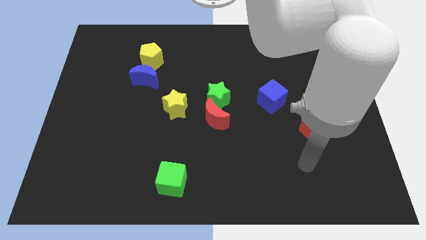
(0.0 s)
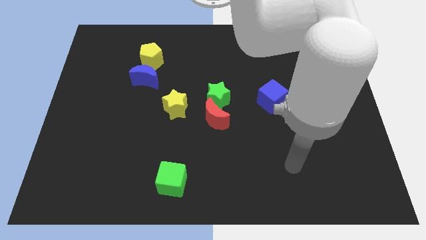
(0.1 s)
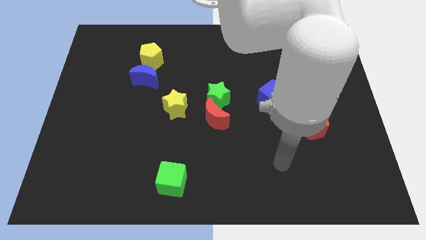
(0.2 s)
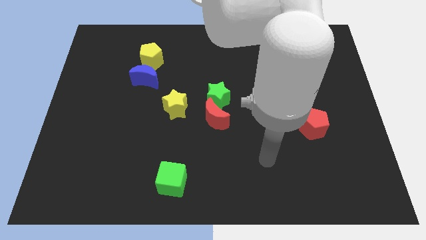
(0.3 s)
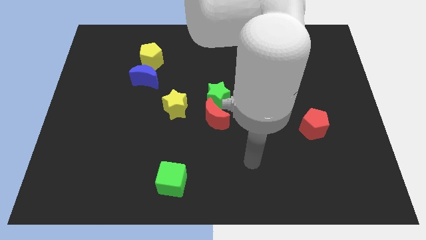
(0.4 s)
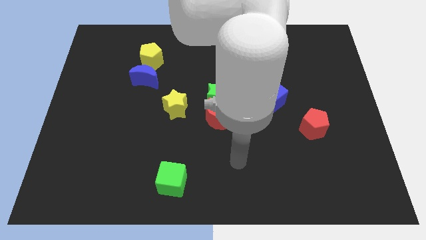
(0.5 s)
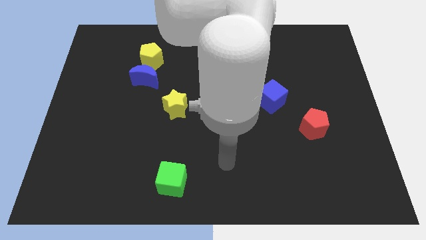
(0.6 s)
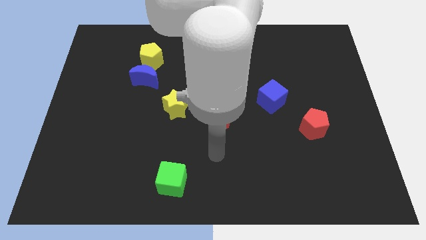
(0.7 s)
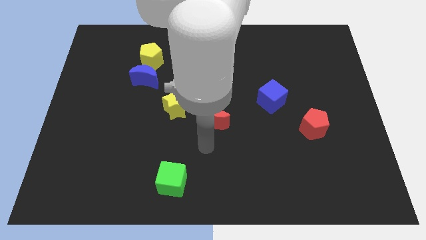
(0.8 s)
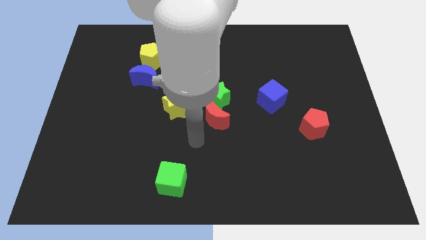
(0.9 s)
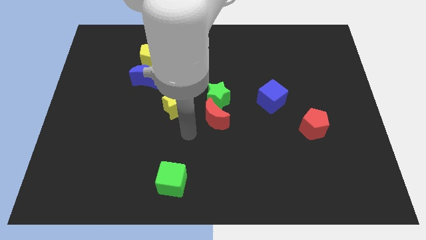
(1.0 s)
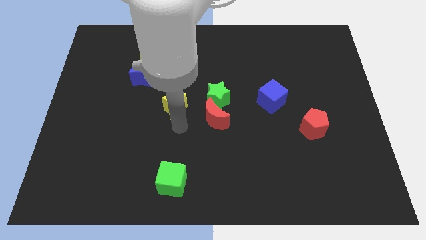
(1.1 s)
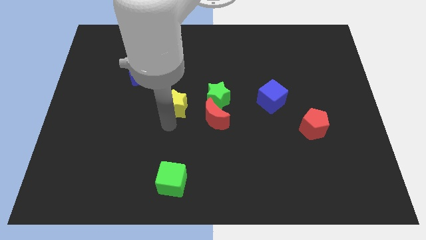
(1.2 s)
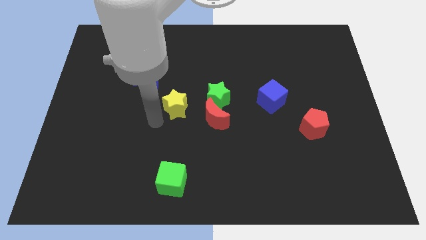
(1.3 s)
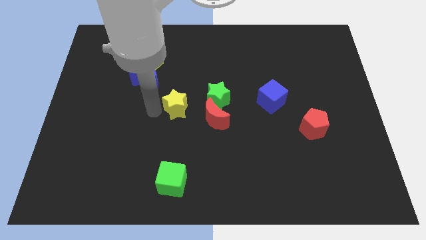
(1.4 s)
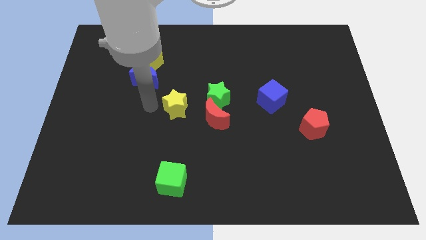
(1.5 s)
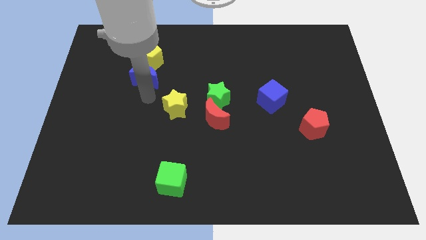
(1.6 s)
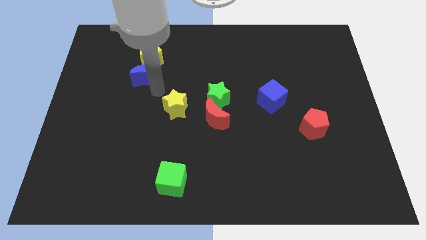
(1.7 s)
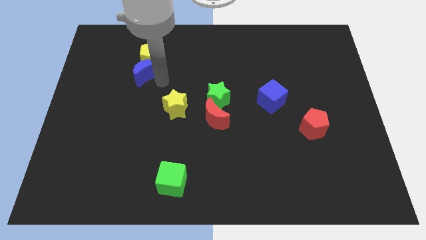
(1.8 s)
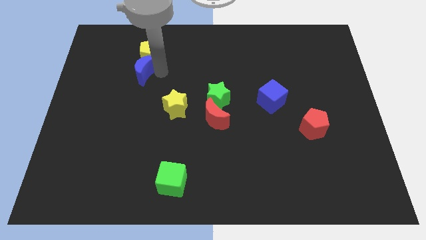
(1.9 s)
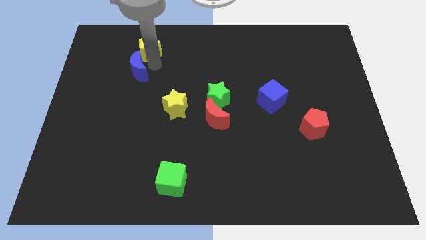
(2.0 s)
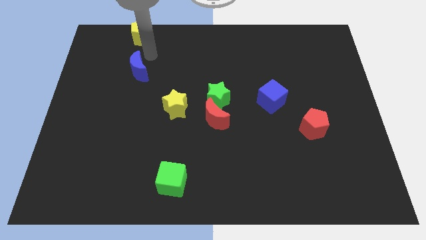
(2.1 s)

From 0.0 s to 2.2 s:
separate the blue moon from the yellow pentagon

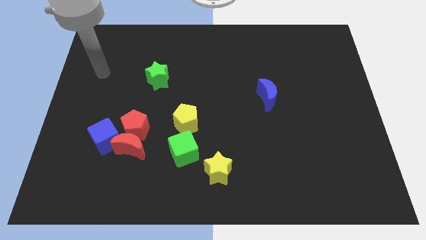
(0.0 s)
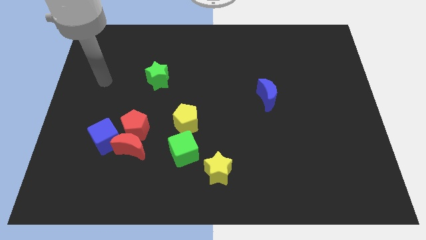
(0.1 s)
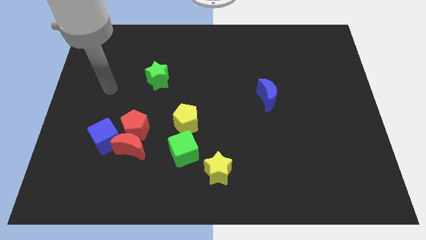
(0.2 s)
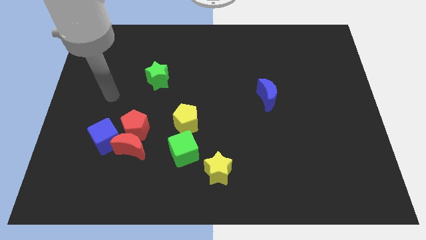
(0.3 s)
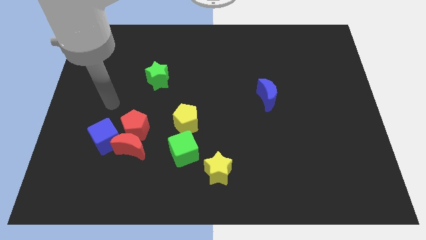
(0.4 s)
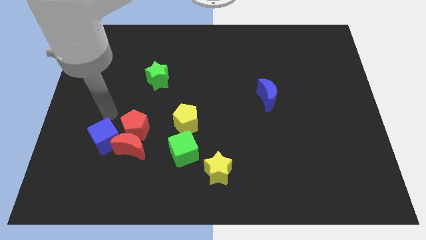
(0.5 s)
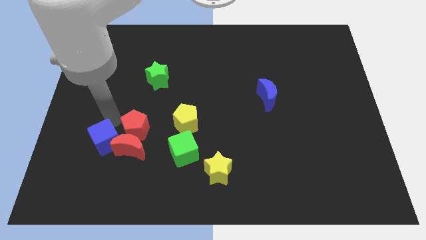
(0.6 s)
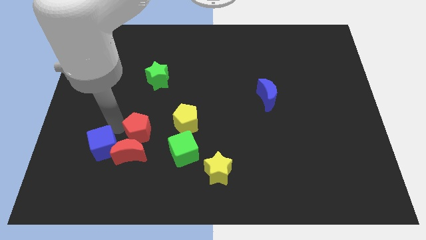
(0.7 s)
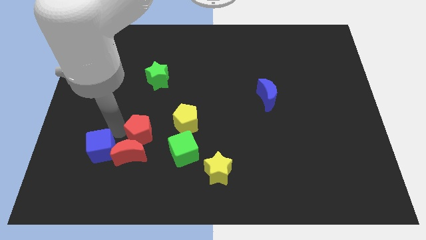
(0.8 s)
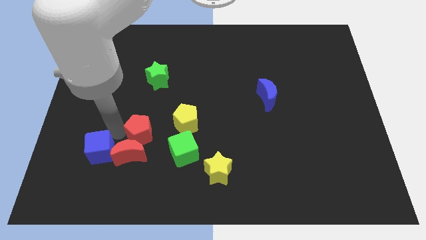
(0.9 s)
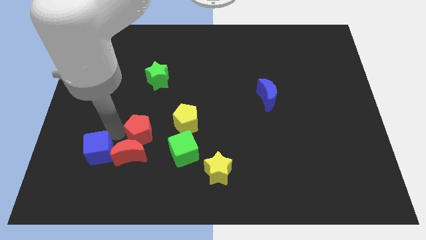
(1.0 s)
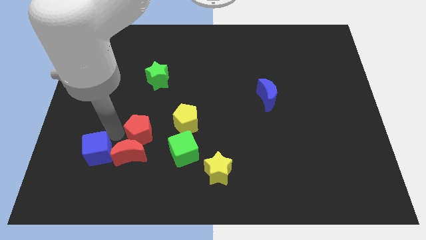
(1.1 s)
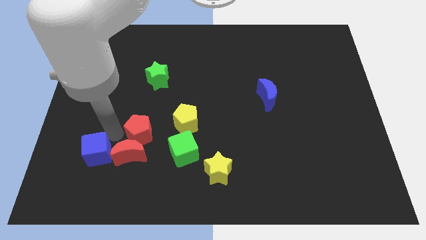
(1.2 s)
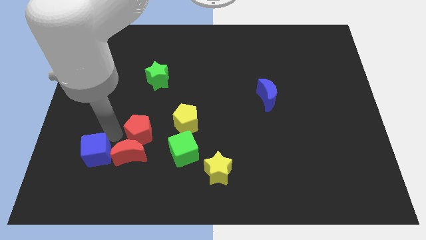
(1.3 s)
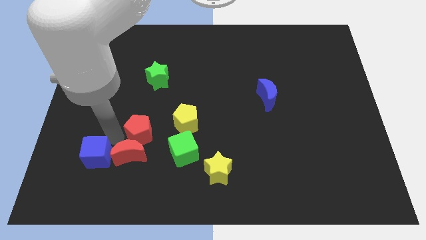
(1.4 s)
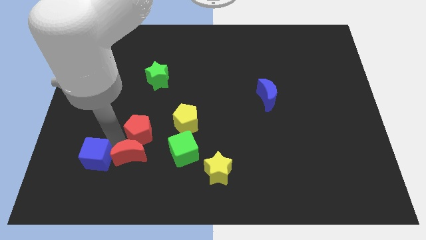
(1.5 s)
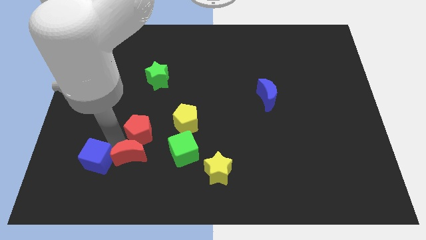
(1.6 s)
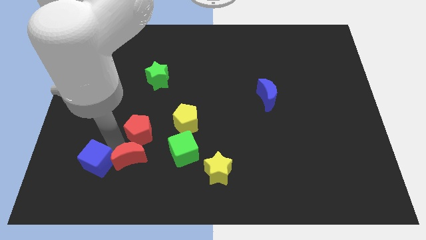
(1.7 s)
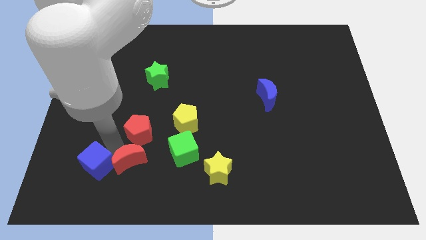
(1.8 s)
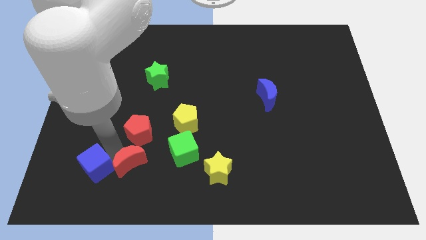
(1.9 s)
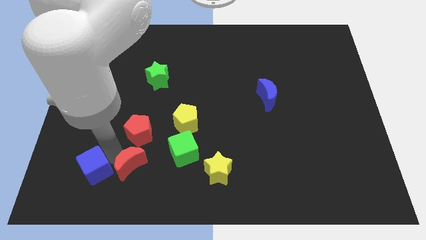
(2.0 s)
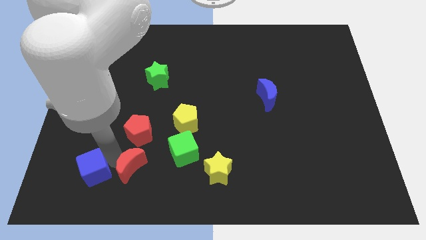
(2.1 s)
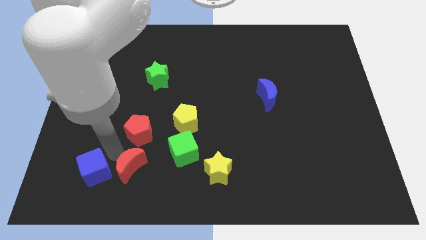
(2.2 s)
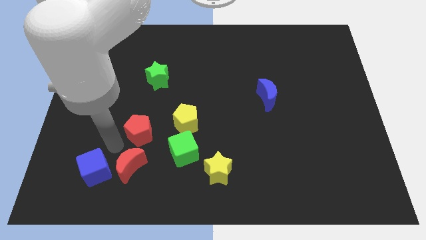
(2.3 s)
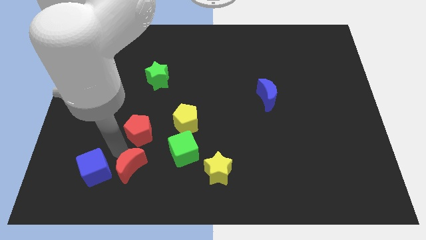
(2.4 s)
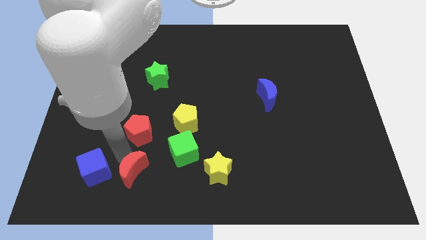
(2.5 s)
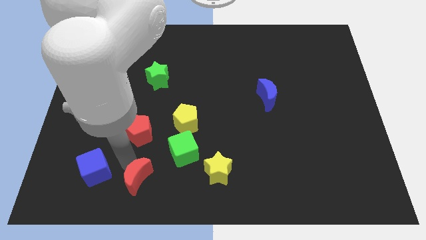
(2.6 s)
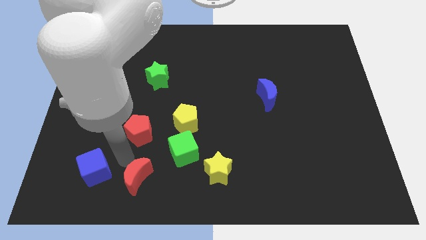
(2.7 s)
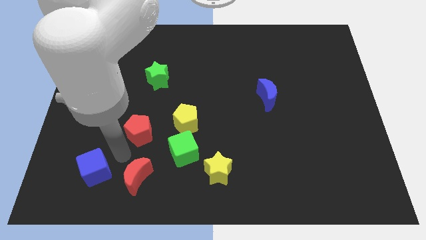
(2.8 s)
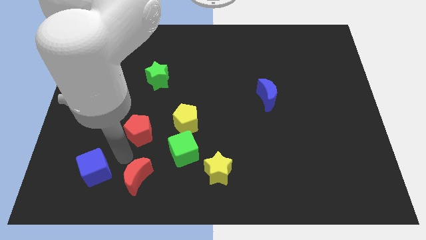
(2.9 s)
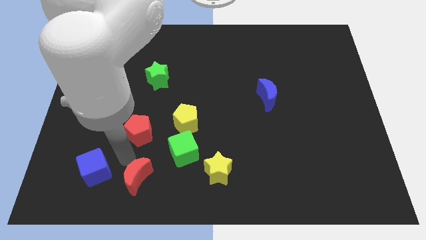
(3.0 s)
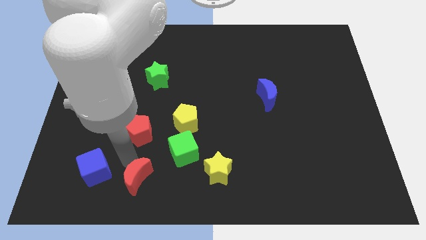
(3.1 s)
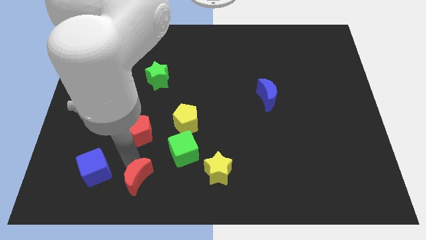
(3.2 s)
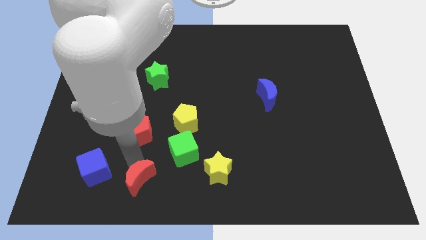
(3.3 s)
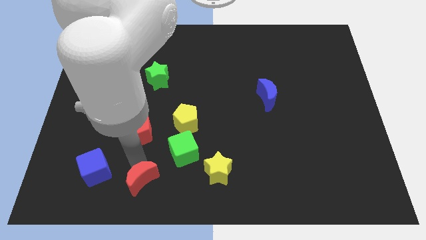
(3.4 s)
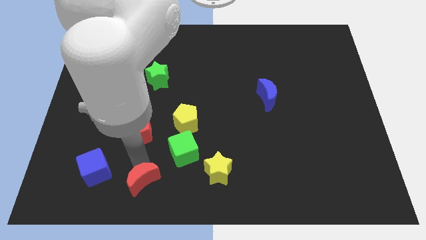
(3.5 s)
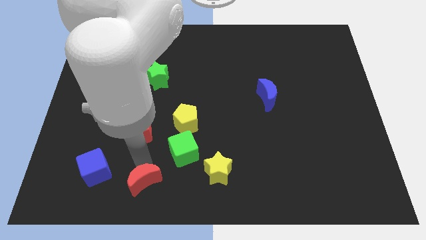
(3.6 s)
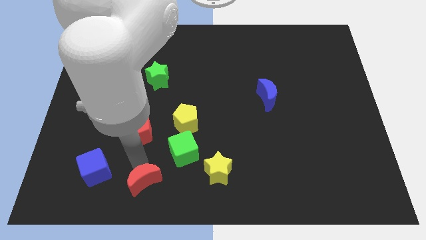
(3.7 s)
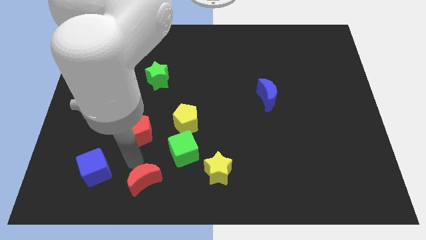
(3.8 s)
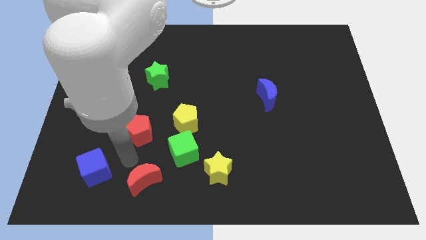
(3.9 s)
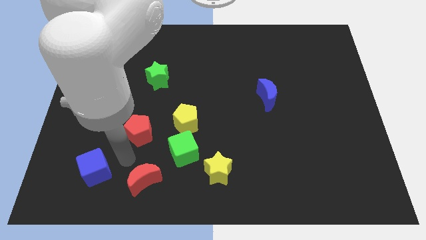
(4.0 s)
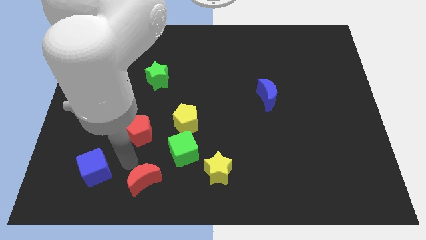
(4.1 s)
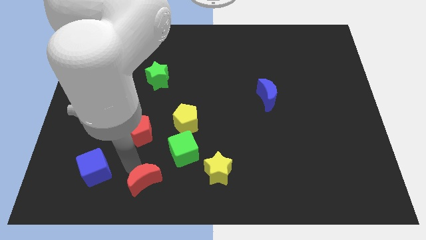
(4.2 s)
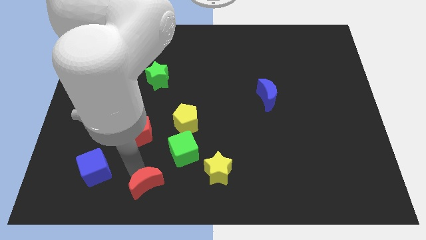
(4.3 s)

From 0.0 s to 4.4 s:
pull the red moon apart from the red pentagon and blue cube

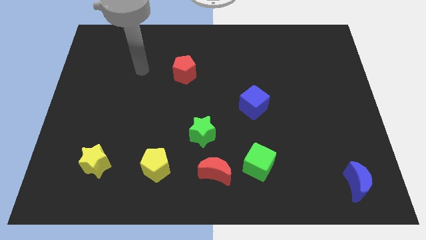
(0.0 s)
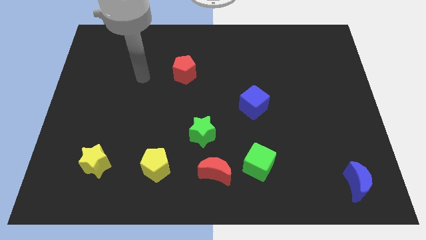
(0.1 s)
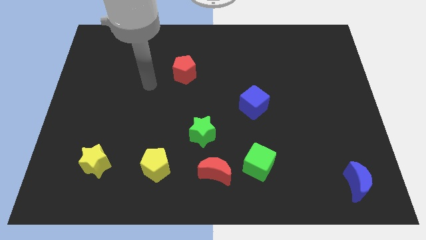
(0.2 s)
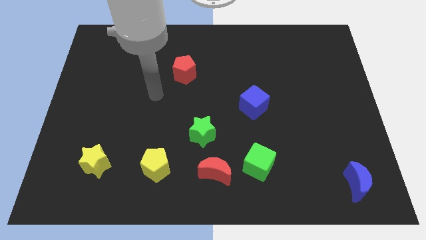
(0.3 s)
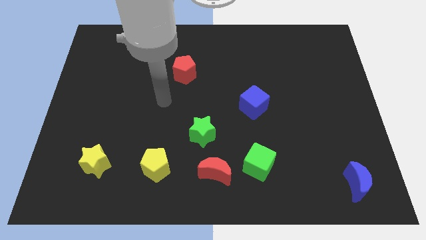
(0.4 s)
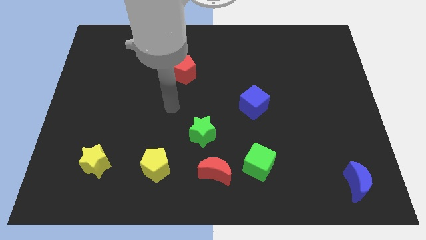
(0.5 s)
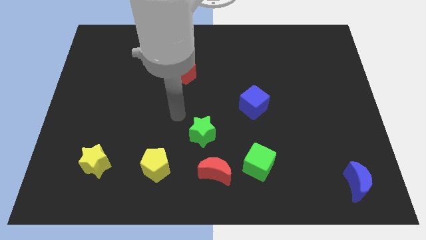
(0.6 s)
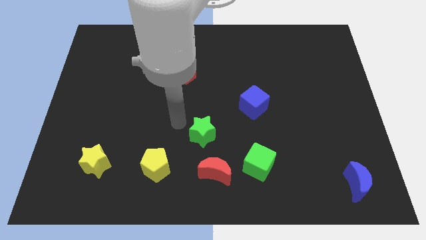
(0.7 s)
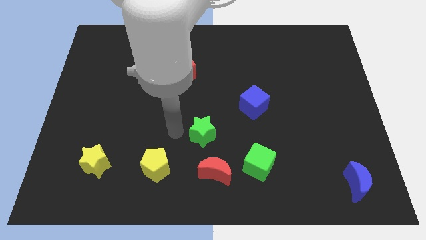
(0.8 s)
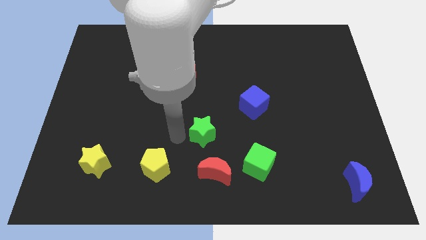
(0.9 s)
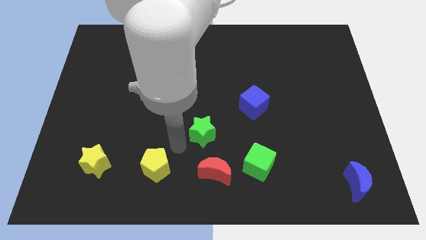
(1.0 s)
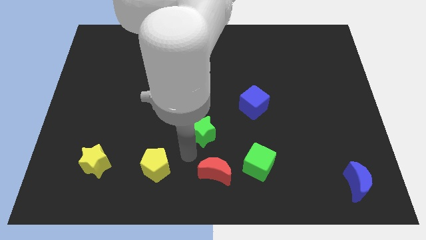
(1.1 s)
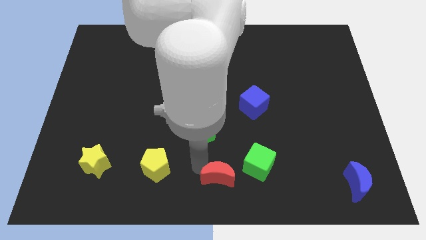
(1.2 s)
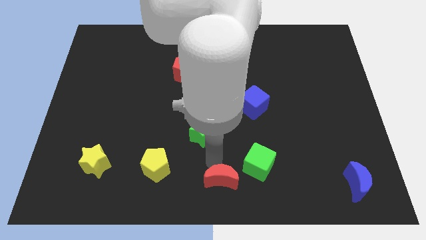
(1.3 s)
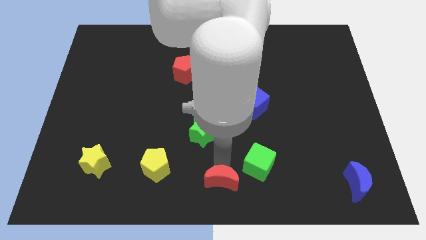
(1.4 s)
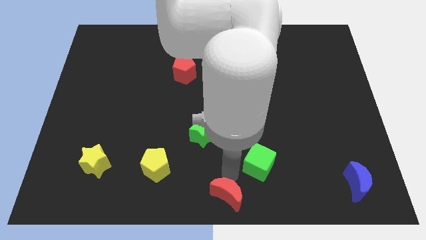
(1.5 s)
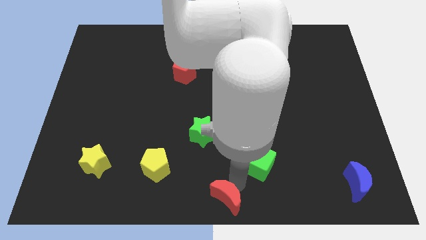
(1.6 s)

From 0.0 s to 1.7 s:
pull the green cube apart from the red moon

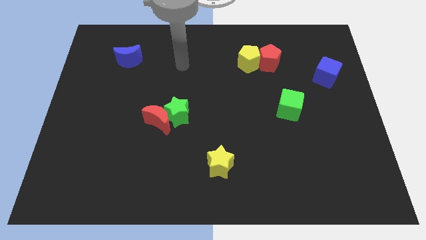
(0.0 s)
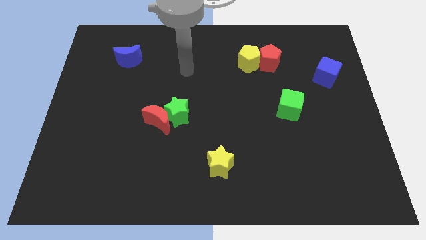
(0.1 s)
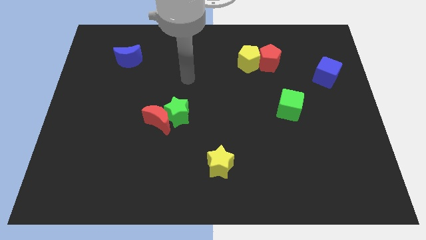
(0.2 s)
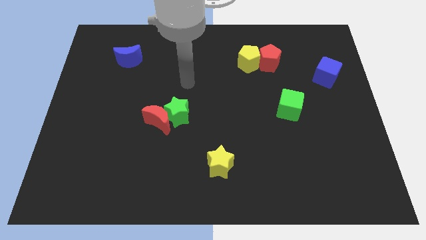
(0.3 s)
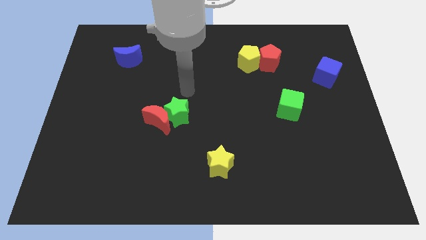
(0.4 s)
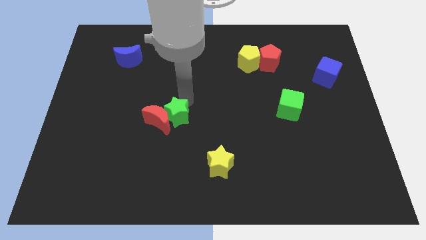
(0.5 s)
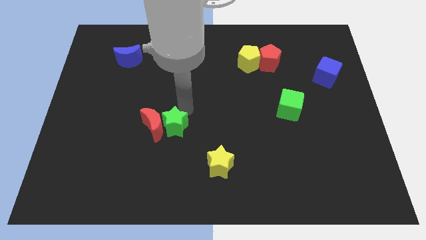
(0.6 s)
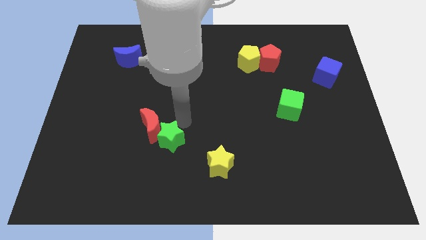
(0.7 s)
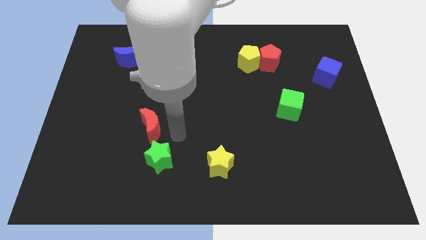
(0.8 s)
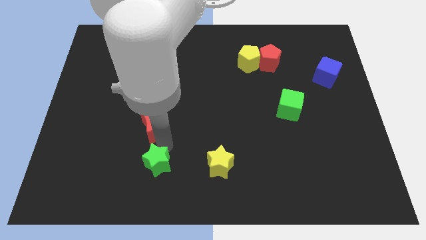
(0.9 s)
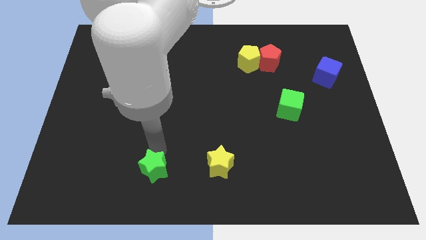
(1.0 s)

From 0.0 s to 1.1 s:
separate the red moon from the green star

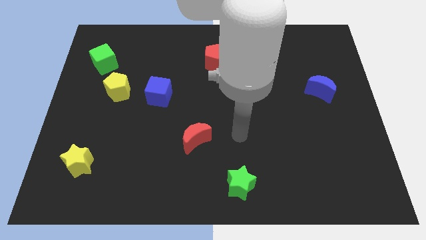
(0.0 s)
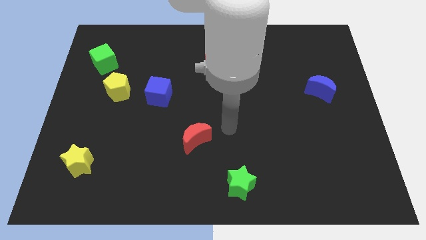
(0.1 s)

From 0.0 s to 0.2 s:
pull the blue cube apart from the yellow pentagon
